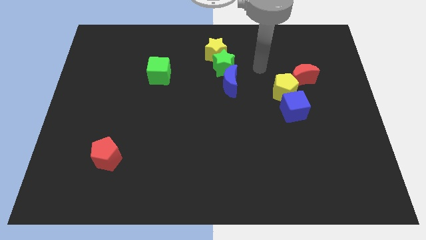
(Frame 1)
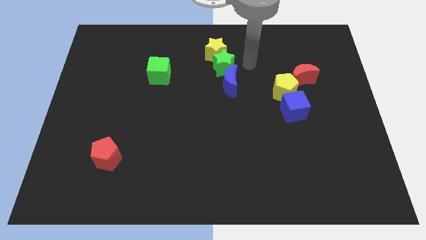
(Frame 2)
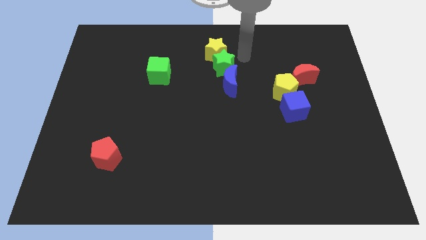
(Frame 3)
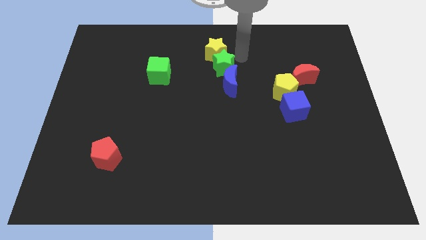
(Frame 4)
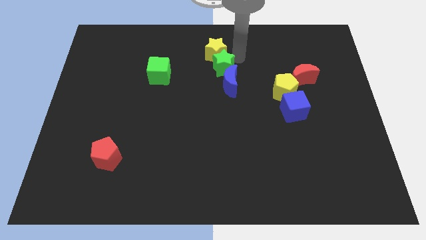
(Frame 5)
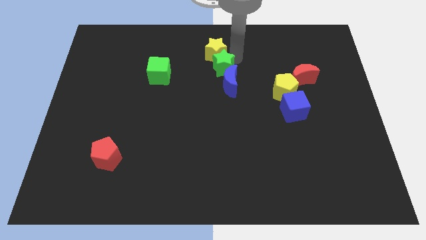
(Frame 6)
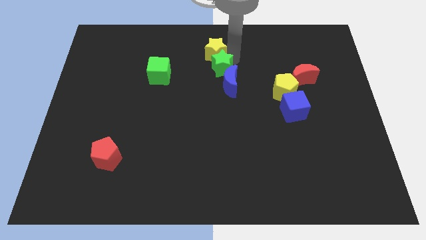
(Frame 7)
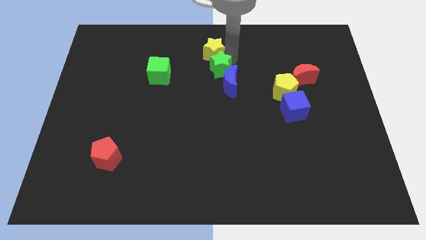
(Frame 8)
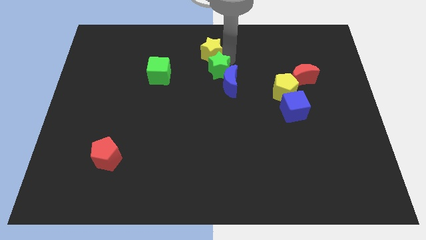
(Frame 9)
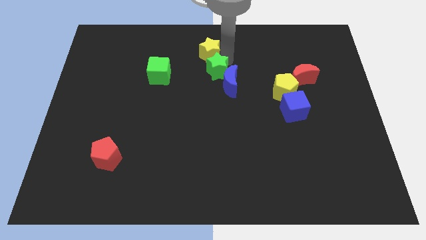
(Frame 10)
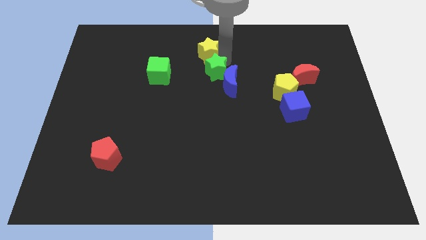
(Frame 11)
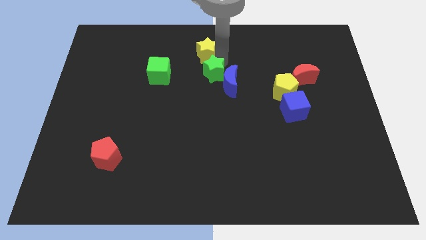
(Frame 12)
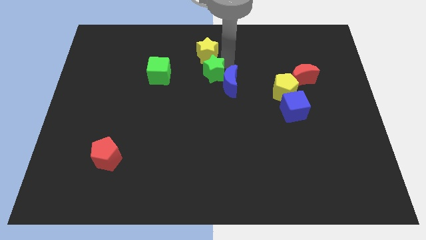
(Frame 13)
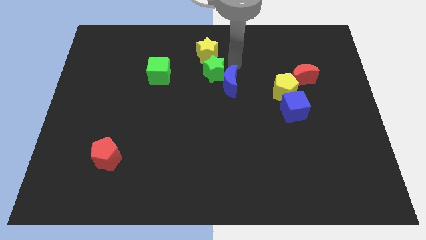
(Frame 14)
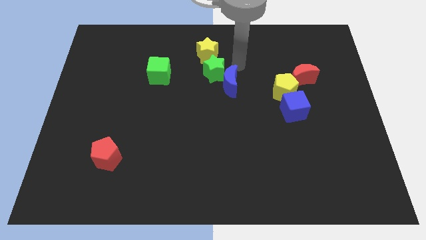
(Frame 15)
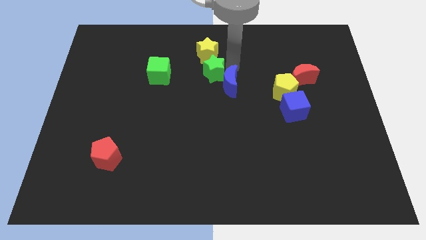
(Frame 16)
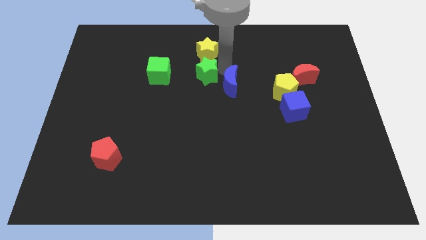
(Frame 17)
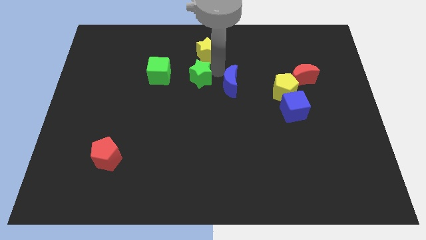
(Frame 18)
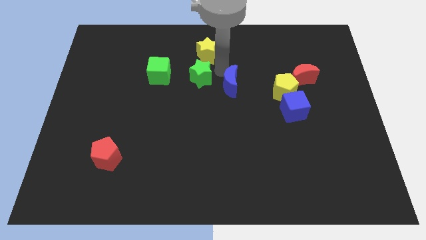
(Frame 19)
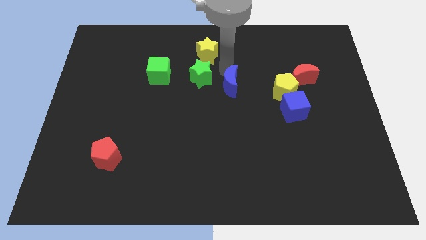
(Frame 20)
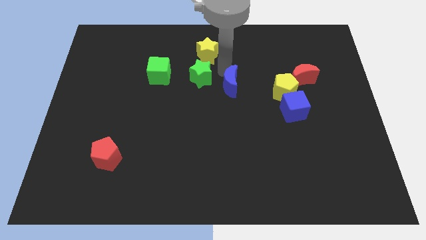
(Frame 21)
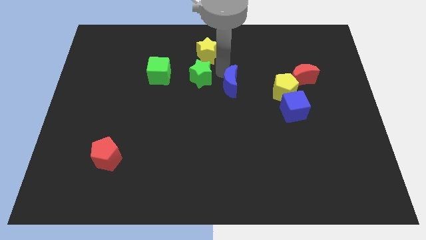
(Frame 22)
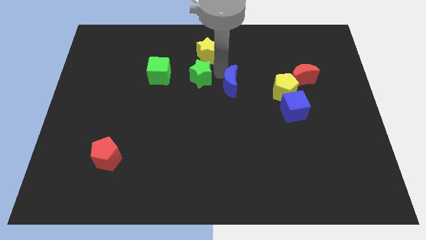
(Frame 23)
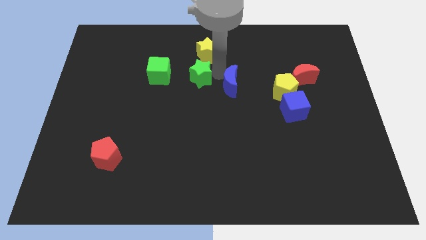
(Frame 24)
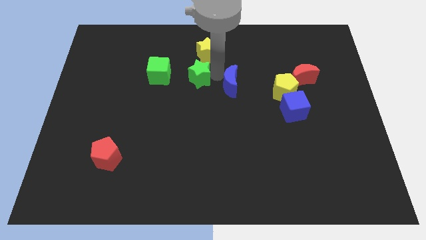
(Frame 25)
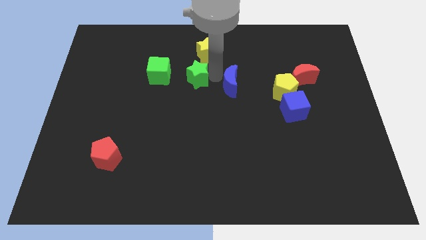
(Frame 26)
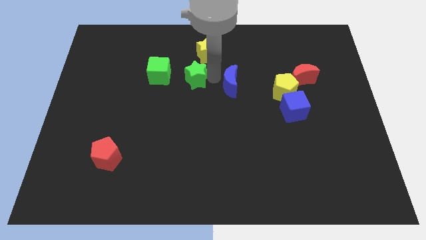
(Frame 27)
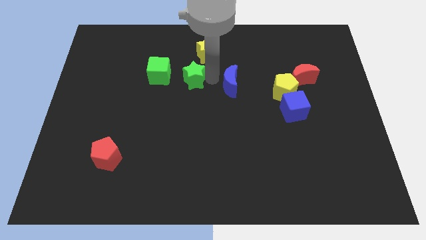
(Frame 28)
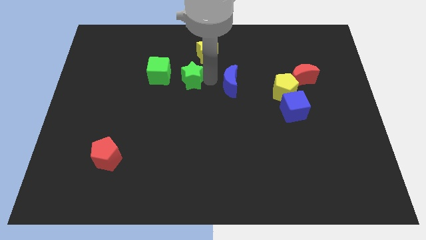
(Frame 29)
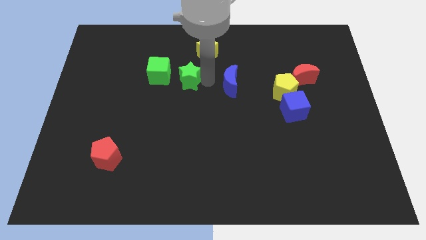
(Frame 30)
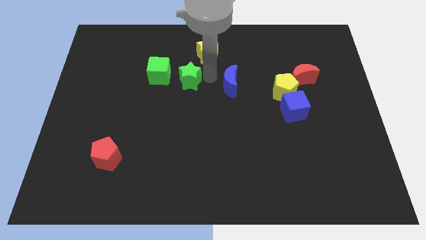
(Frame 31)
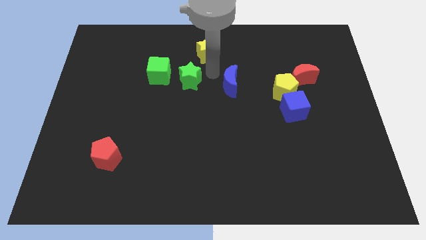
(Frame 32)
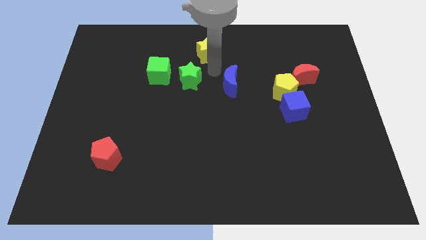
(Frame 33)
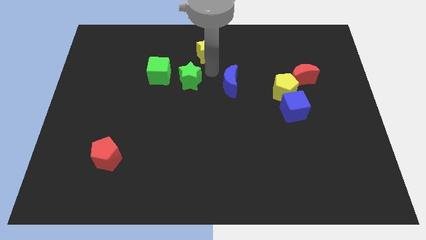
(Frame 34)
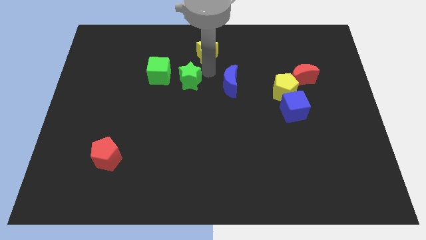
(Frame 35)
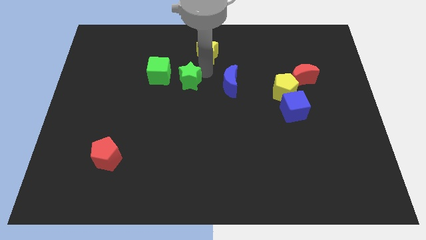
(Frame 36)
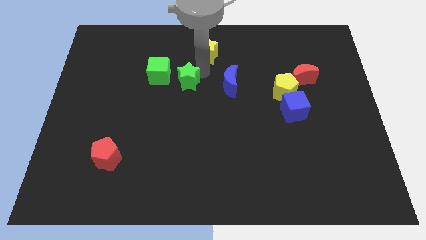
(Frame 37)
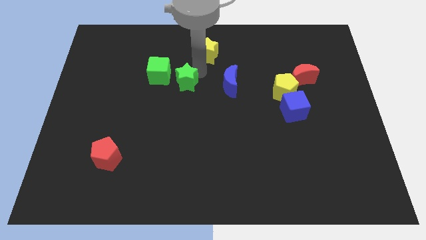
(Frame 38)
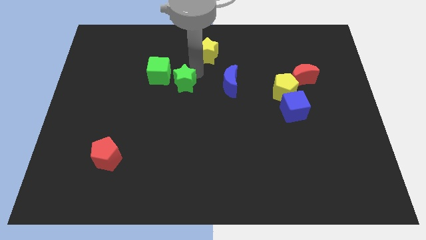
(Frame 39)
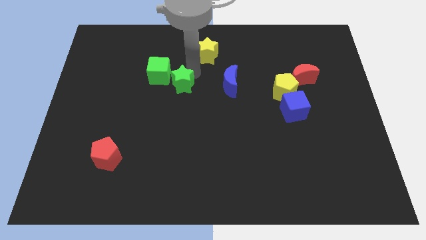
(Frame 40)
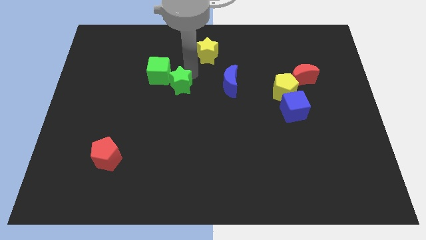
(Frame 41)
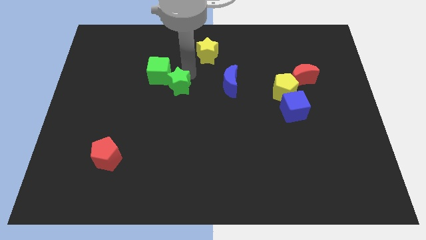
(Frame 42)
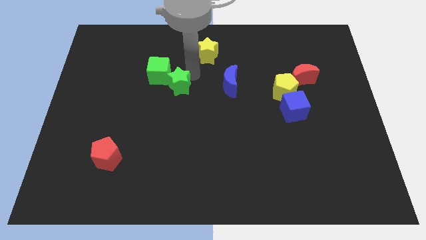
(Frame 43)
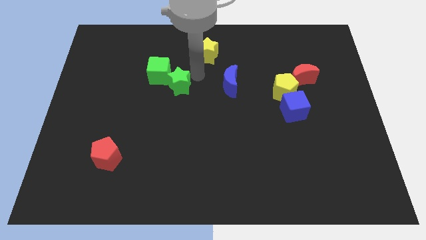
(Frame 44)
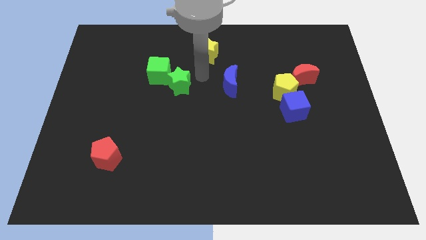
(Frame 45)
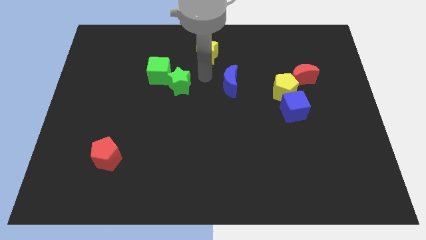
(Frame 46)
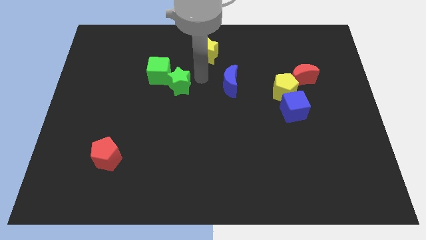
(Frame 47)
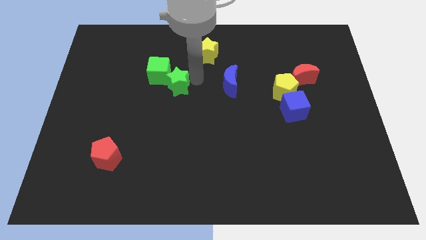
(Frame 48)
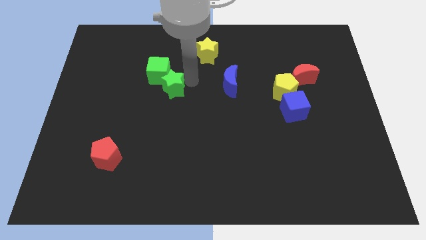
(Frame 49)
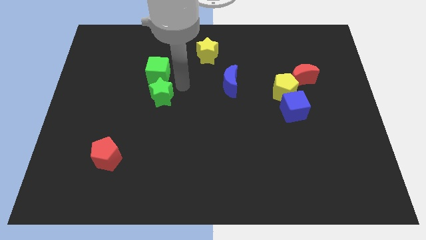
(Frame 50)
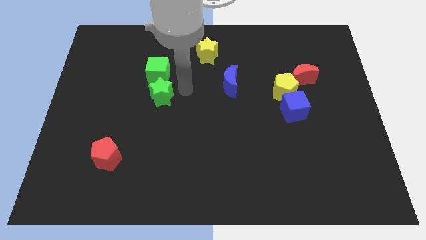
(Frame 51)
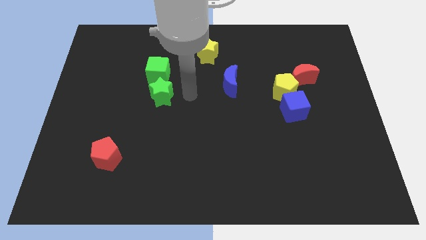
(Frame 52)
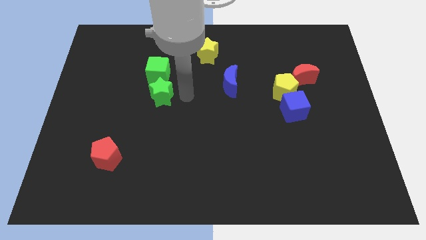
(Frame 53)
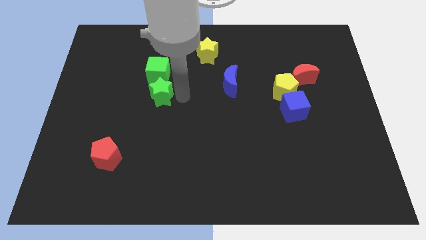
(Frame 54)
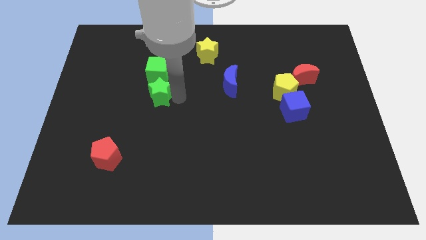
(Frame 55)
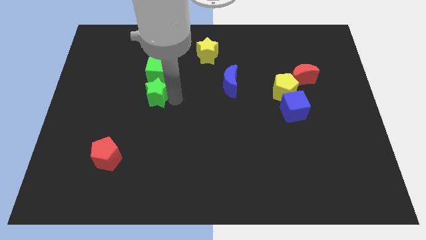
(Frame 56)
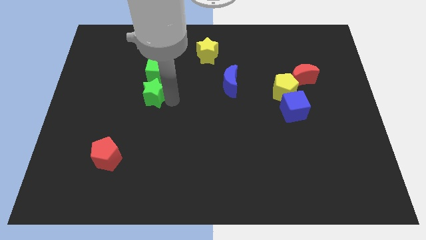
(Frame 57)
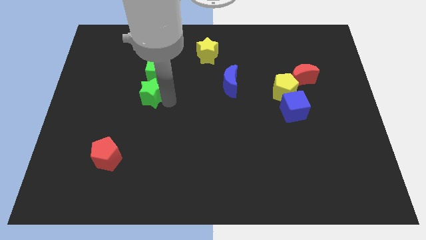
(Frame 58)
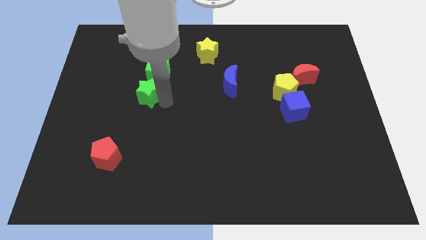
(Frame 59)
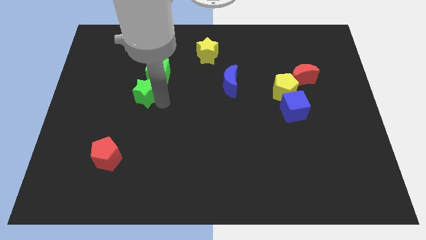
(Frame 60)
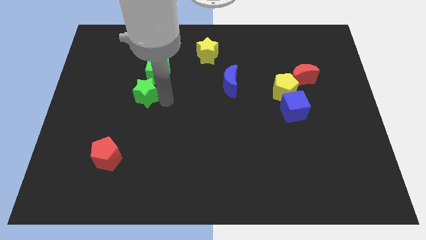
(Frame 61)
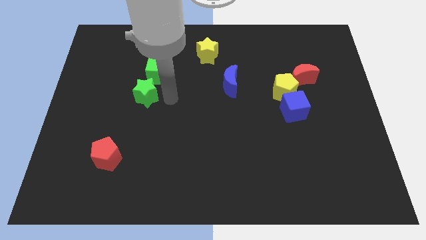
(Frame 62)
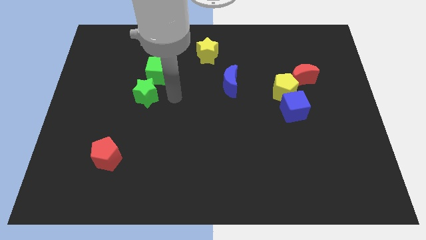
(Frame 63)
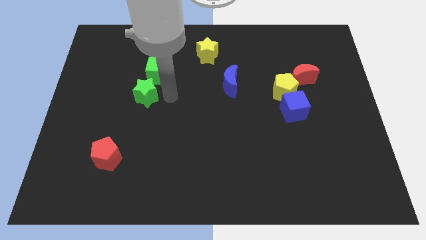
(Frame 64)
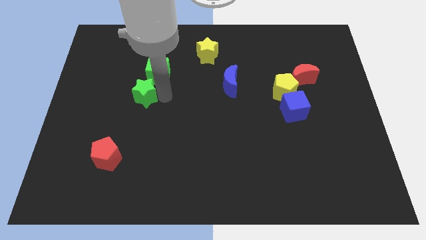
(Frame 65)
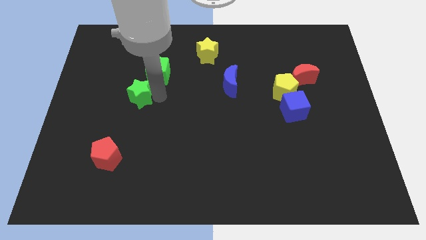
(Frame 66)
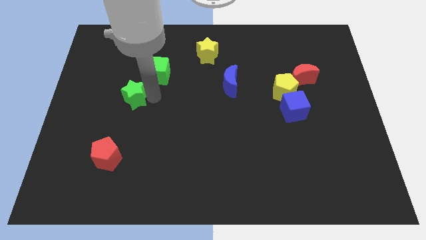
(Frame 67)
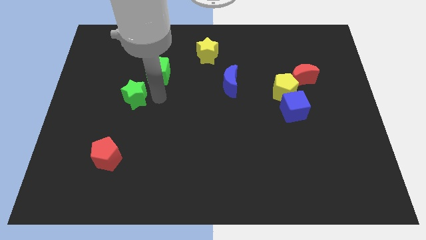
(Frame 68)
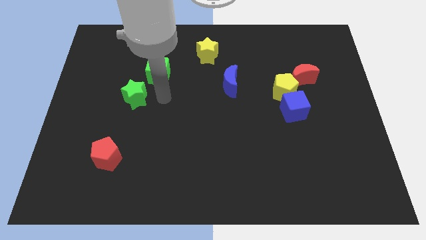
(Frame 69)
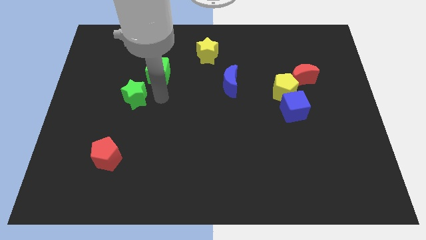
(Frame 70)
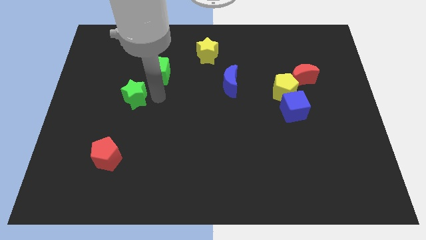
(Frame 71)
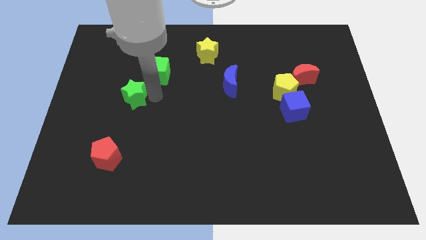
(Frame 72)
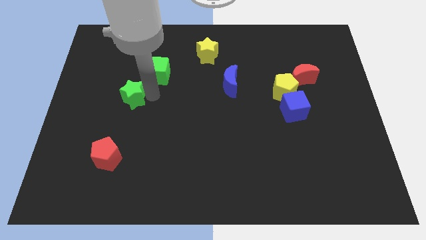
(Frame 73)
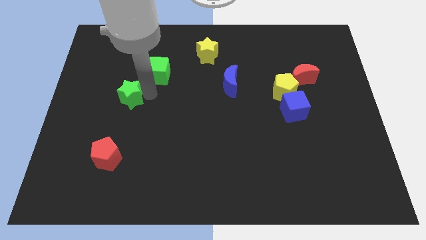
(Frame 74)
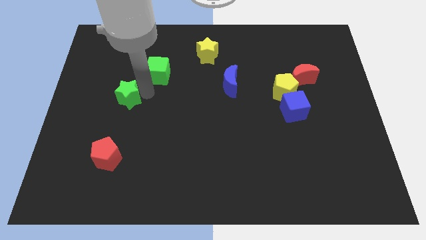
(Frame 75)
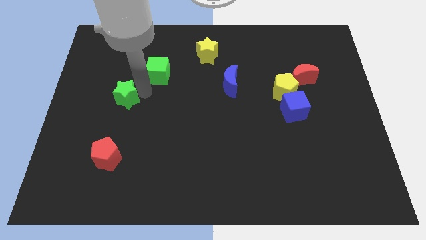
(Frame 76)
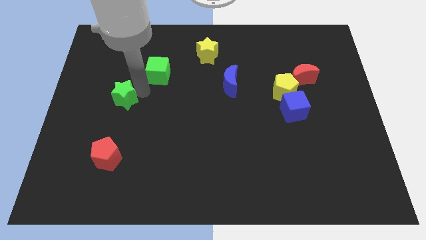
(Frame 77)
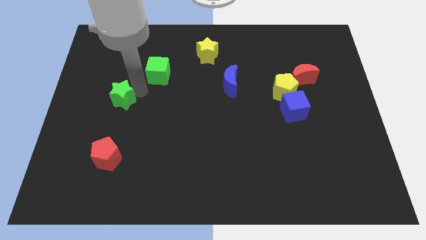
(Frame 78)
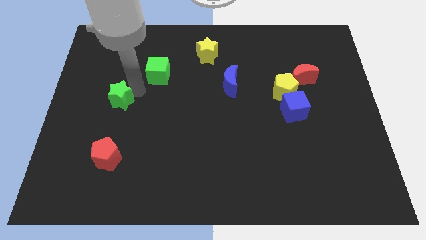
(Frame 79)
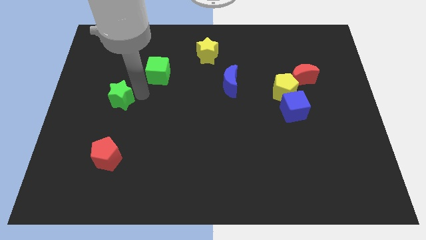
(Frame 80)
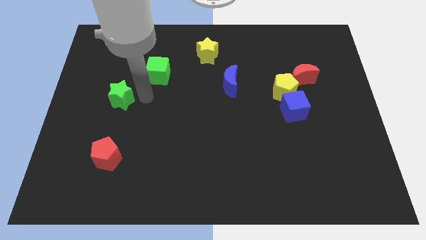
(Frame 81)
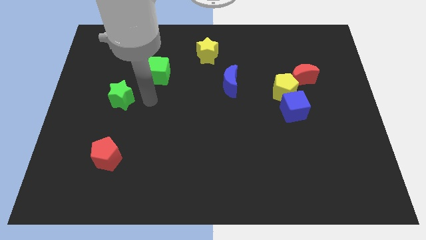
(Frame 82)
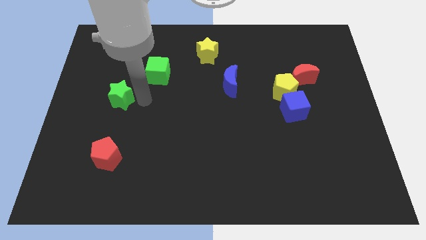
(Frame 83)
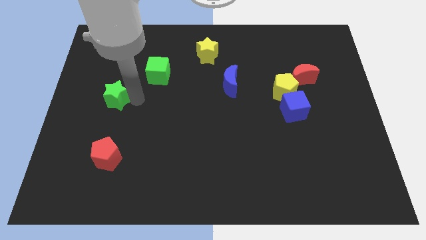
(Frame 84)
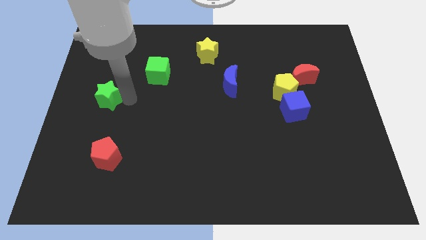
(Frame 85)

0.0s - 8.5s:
move the green star to the left side
